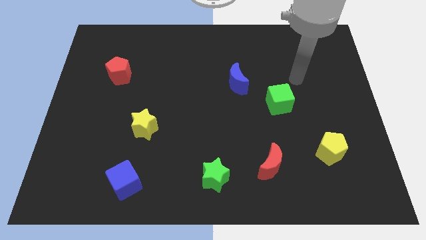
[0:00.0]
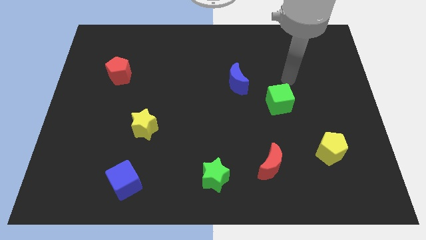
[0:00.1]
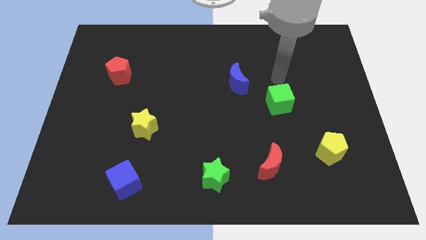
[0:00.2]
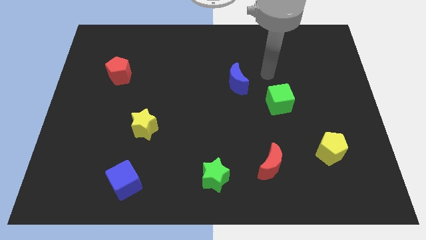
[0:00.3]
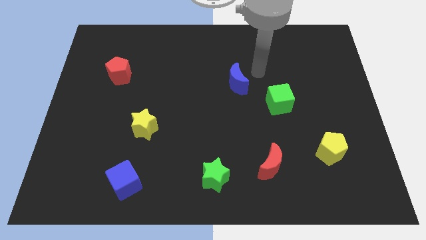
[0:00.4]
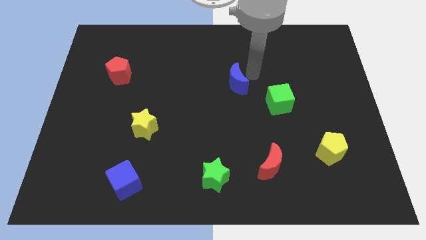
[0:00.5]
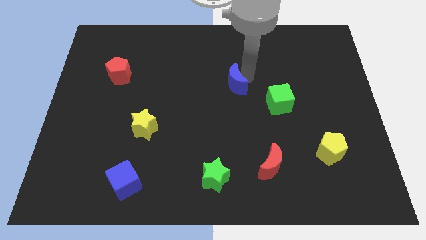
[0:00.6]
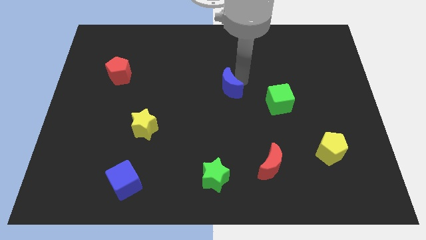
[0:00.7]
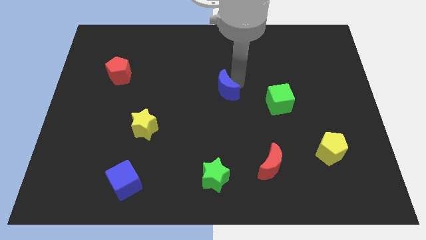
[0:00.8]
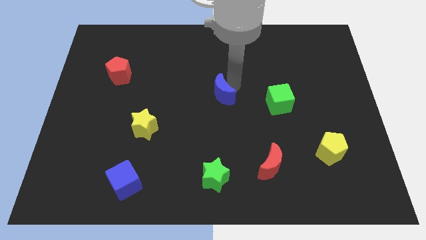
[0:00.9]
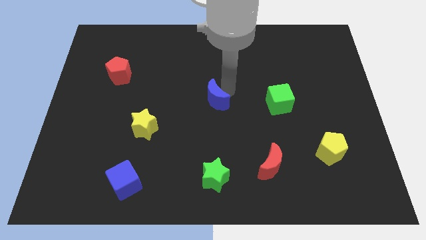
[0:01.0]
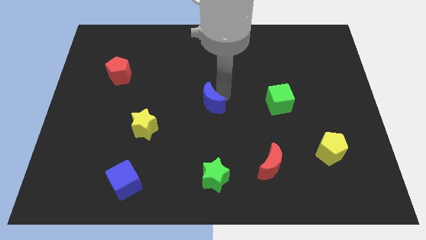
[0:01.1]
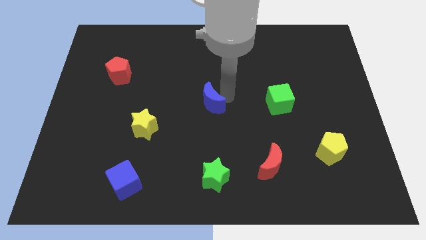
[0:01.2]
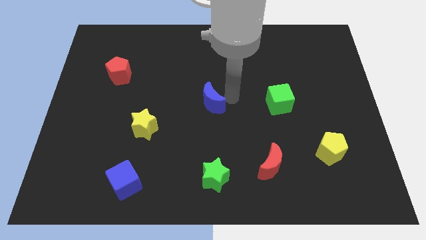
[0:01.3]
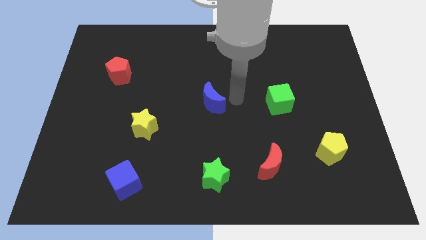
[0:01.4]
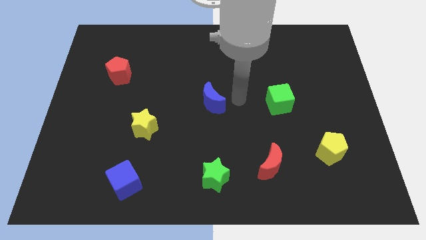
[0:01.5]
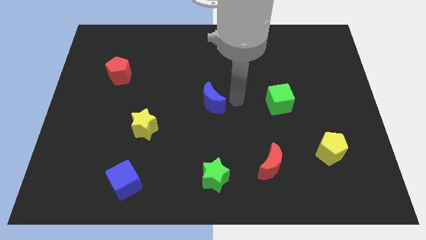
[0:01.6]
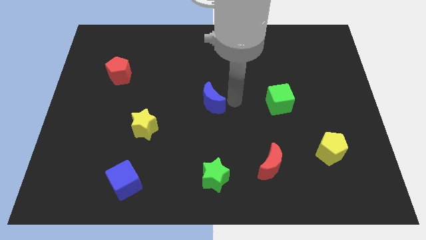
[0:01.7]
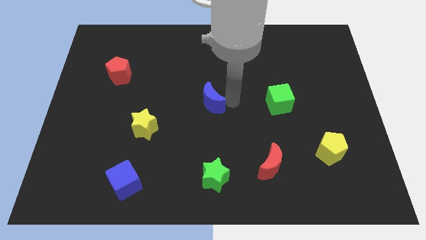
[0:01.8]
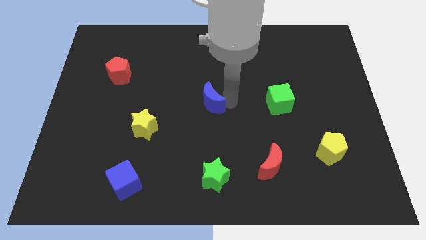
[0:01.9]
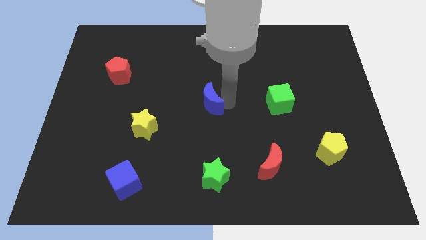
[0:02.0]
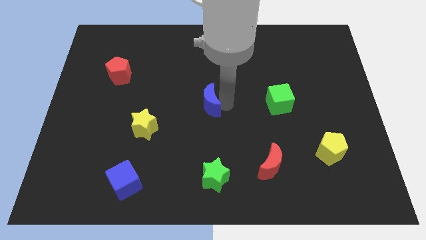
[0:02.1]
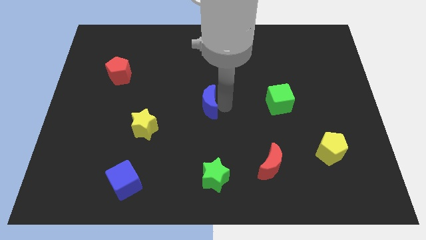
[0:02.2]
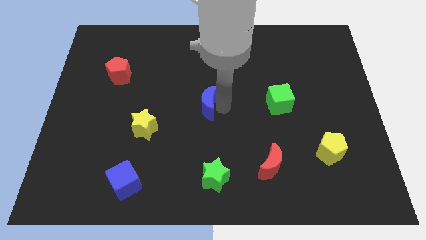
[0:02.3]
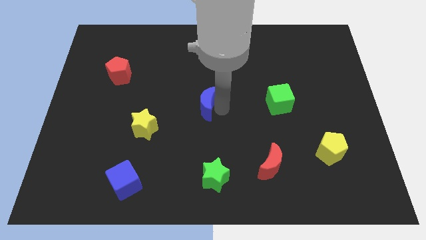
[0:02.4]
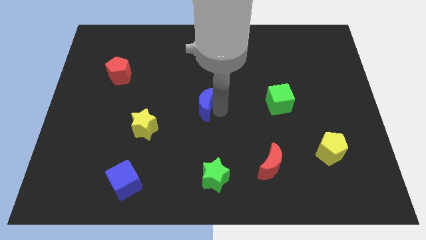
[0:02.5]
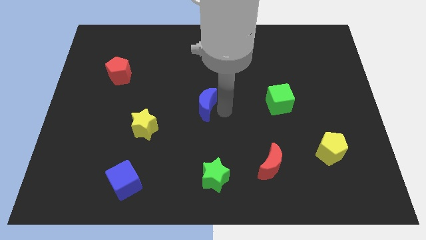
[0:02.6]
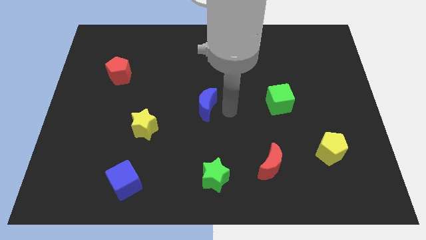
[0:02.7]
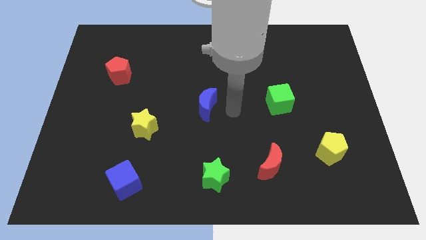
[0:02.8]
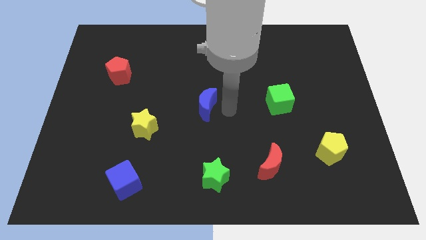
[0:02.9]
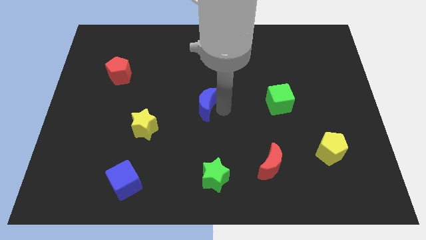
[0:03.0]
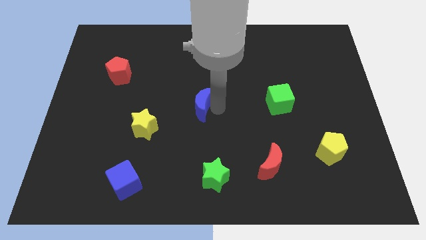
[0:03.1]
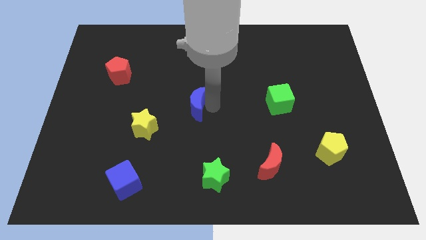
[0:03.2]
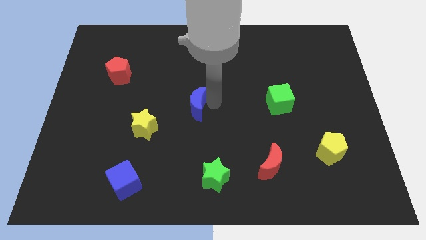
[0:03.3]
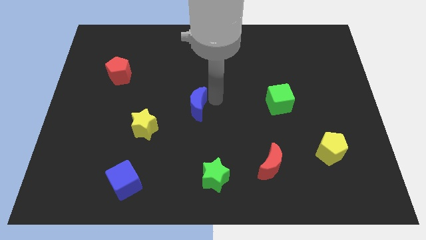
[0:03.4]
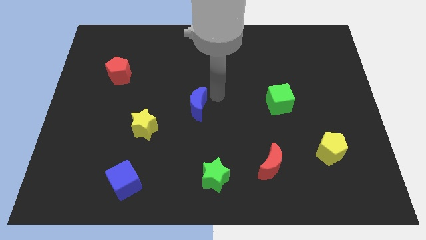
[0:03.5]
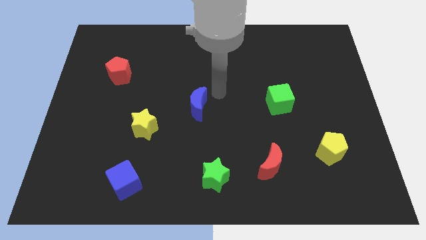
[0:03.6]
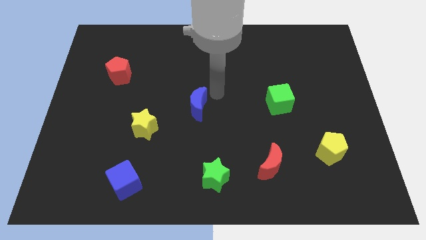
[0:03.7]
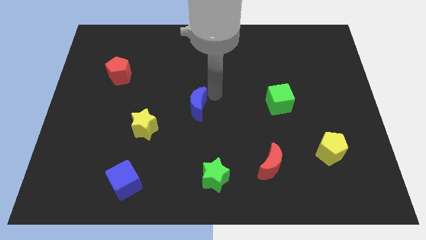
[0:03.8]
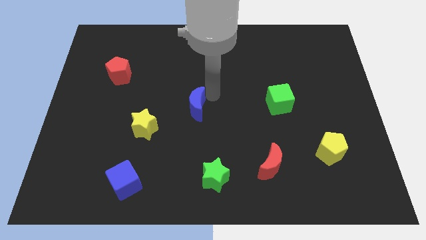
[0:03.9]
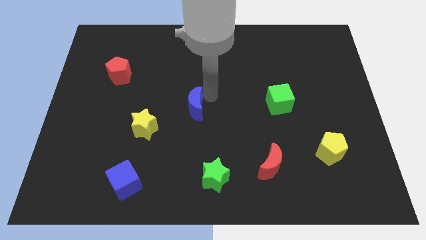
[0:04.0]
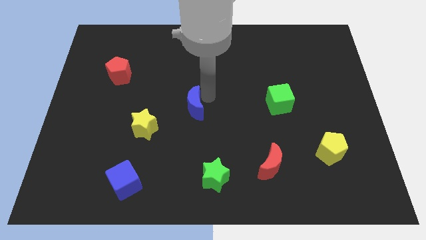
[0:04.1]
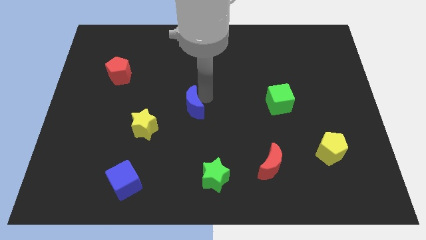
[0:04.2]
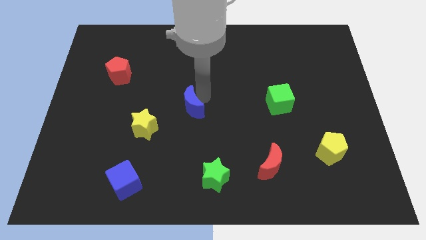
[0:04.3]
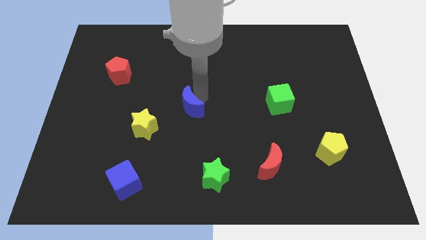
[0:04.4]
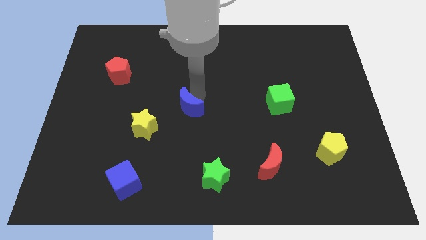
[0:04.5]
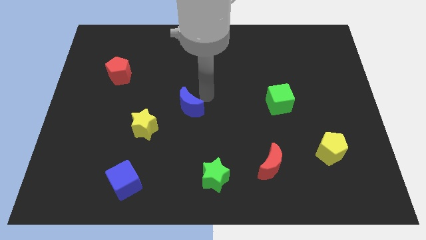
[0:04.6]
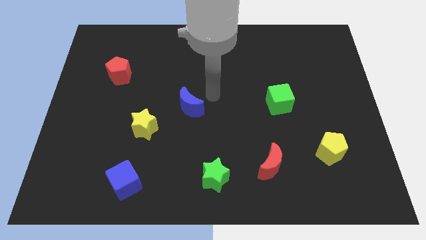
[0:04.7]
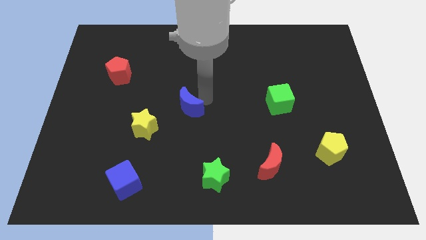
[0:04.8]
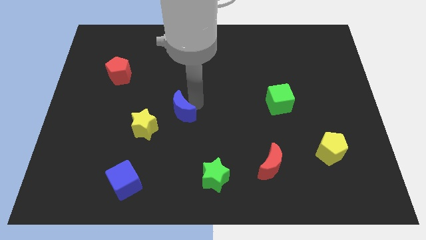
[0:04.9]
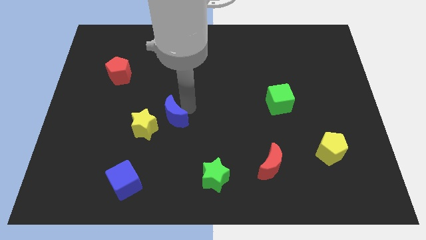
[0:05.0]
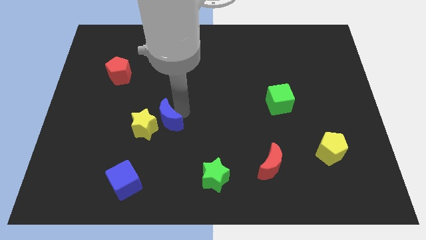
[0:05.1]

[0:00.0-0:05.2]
put the blue moon close to the yellow star

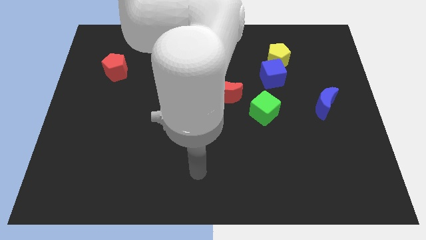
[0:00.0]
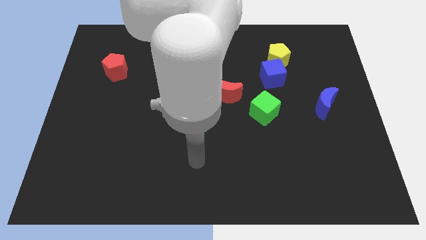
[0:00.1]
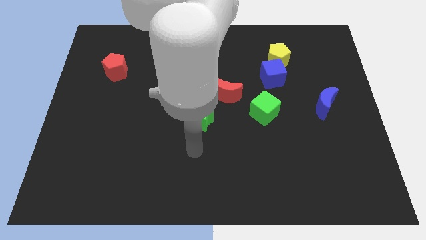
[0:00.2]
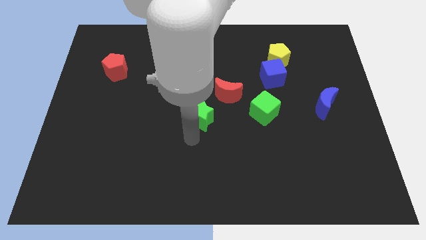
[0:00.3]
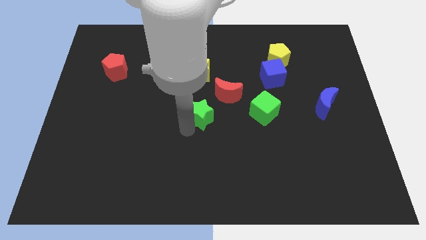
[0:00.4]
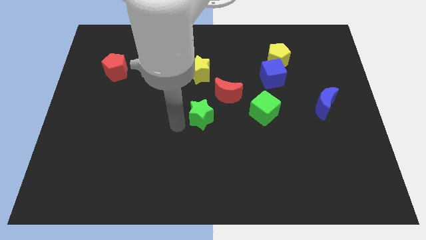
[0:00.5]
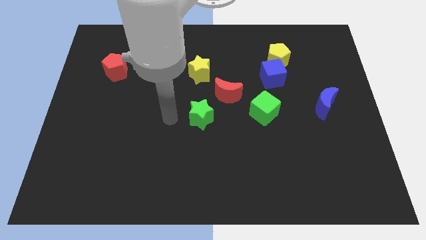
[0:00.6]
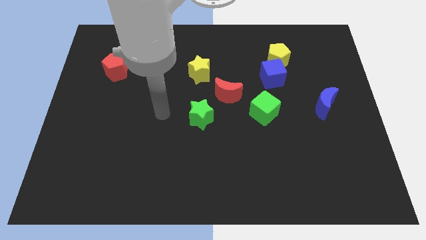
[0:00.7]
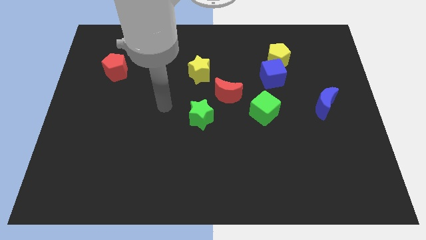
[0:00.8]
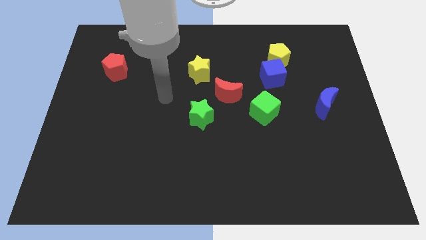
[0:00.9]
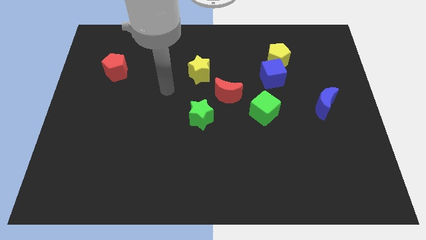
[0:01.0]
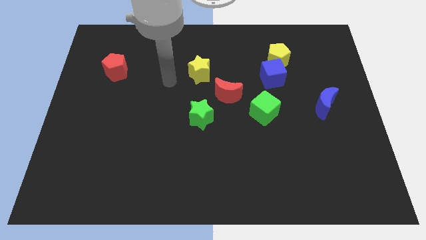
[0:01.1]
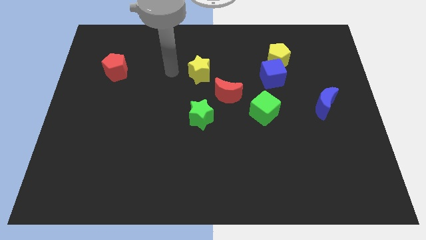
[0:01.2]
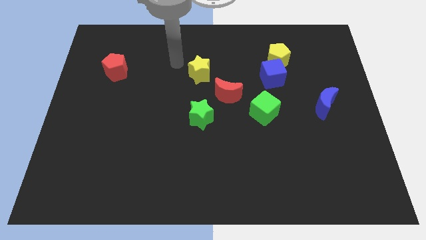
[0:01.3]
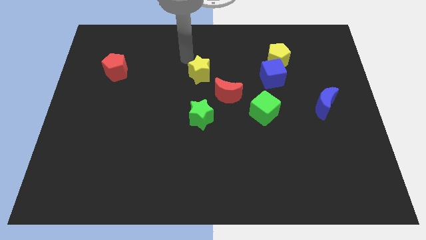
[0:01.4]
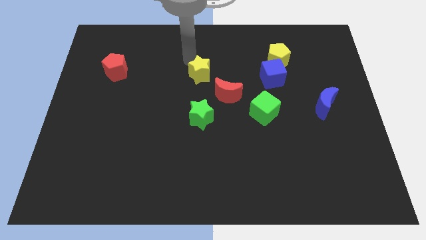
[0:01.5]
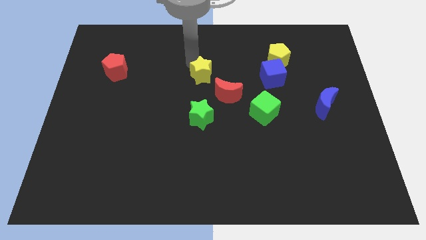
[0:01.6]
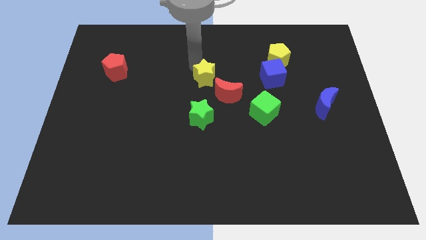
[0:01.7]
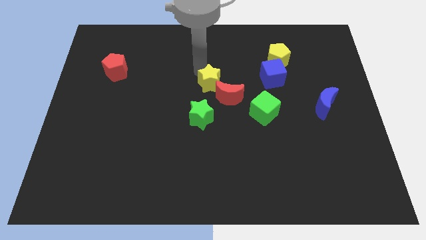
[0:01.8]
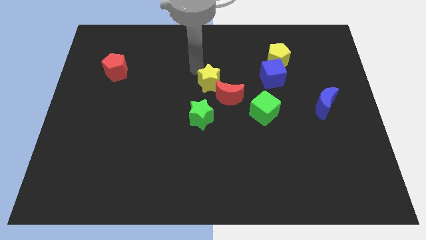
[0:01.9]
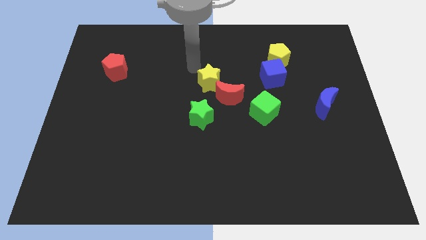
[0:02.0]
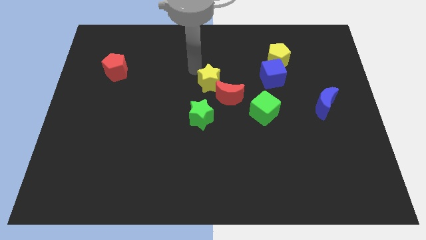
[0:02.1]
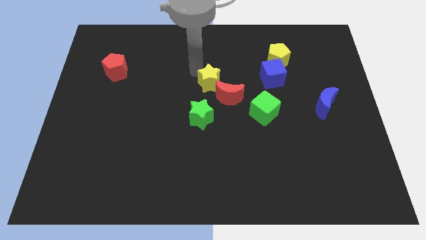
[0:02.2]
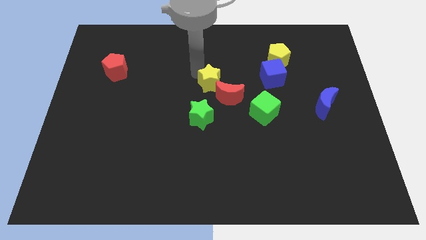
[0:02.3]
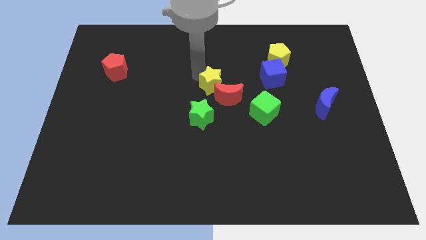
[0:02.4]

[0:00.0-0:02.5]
put the yellow star towards the red moon
